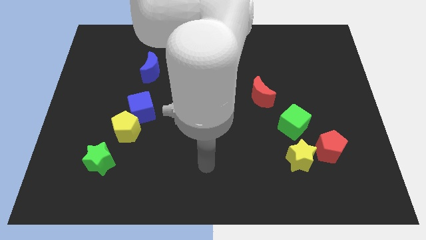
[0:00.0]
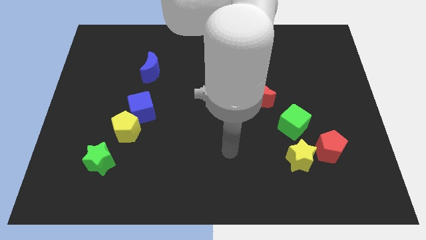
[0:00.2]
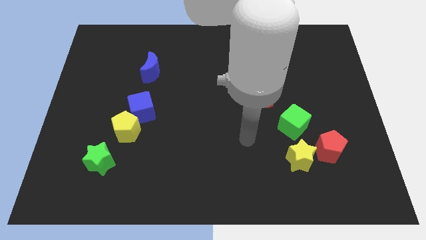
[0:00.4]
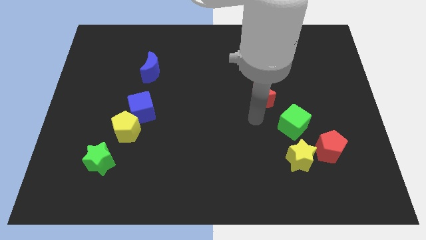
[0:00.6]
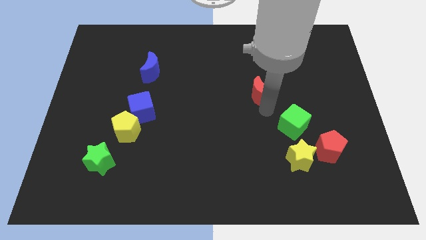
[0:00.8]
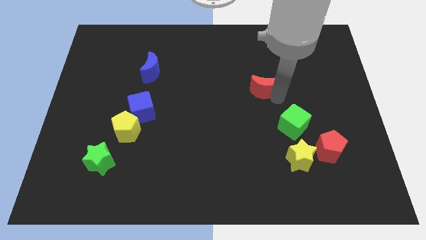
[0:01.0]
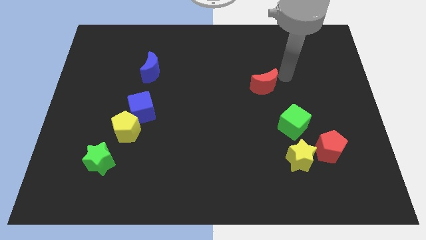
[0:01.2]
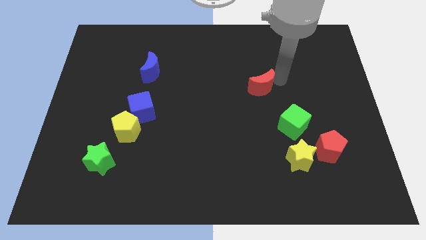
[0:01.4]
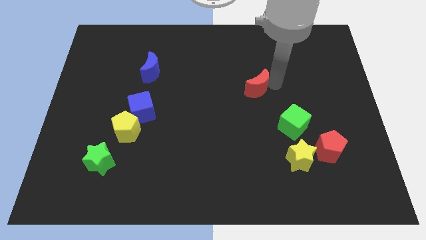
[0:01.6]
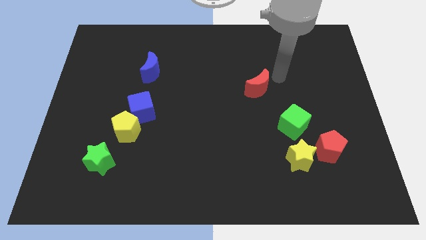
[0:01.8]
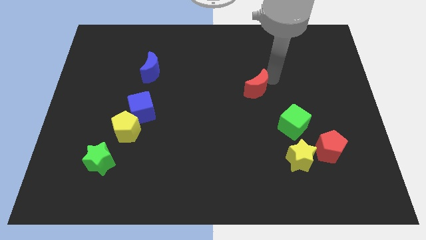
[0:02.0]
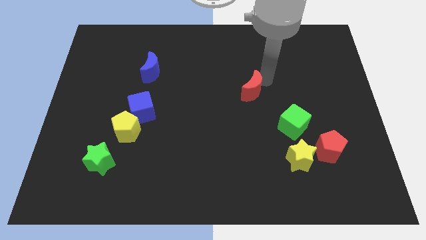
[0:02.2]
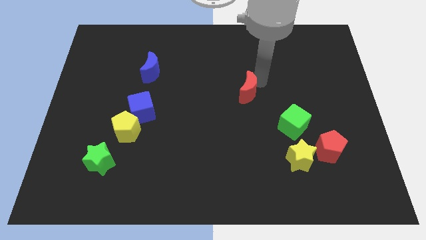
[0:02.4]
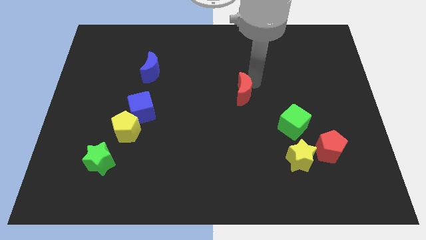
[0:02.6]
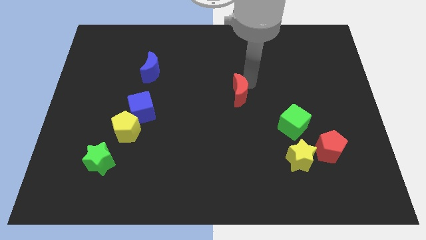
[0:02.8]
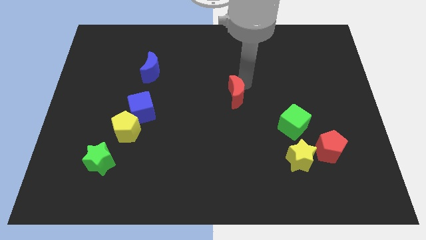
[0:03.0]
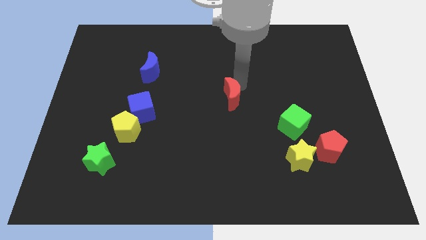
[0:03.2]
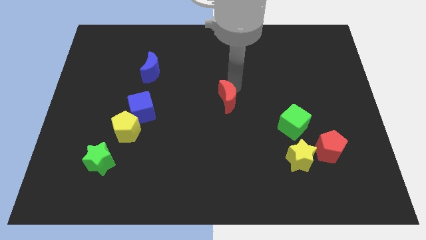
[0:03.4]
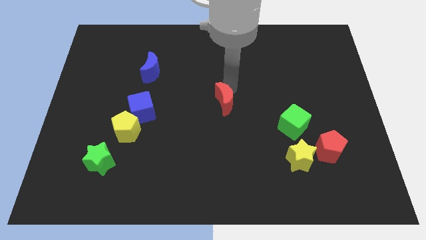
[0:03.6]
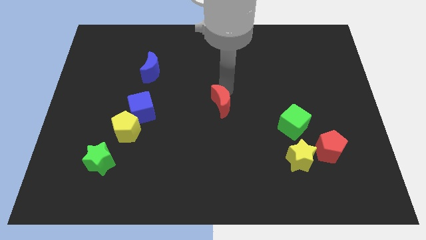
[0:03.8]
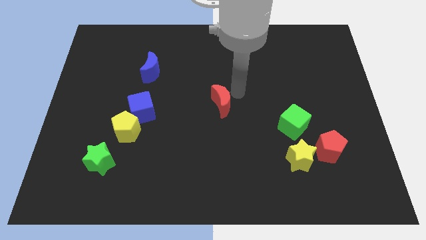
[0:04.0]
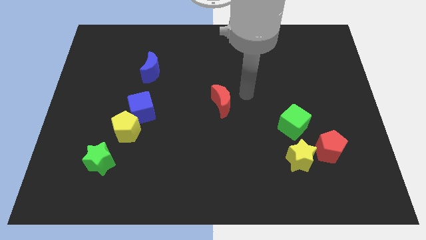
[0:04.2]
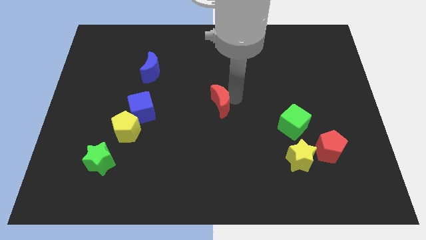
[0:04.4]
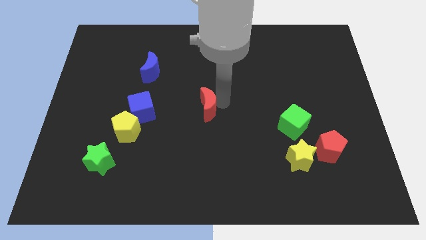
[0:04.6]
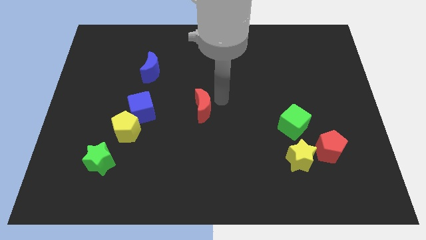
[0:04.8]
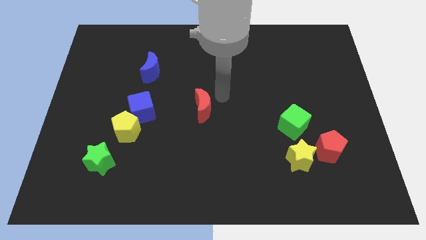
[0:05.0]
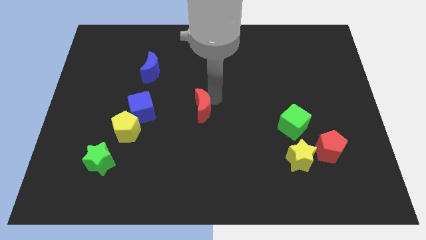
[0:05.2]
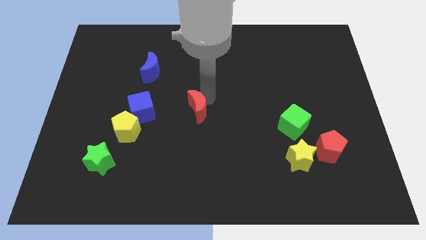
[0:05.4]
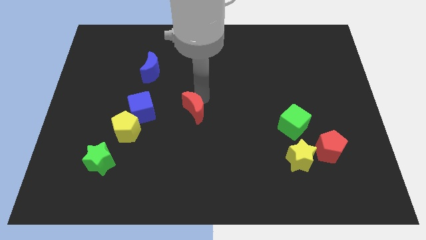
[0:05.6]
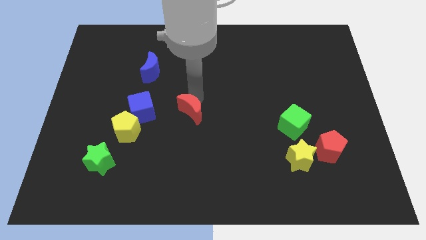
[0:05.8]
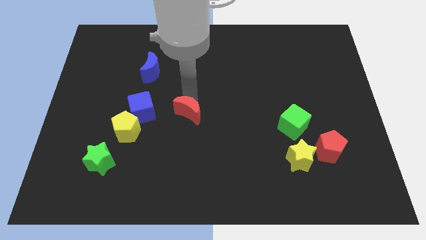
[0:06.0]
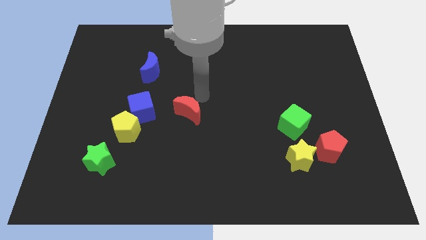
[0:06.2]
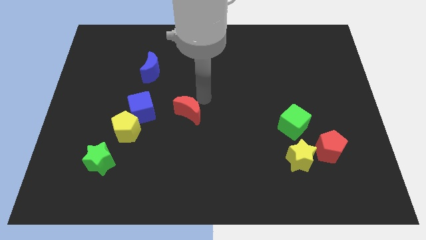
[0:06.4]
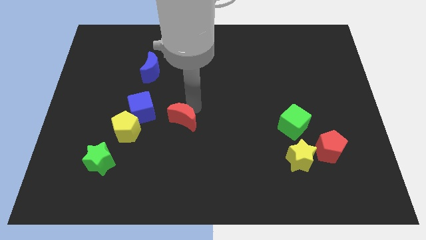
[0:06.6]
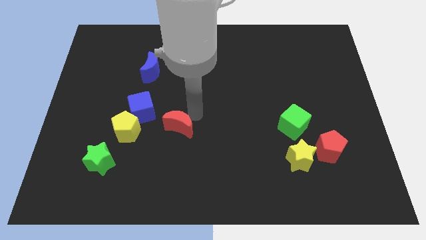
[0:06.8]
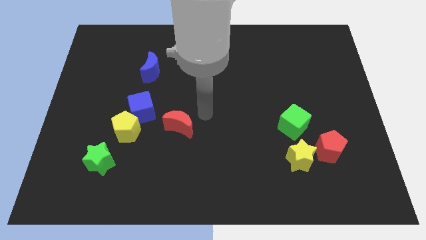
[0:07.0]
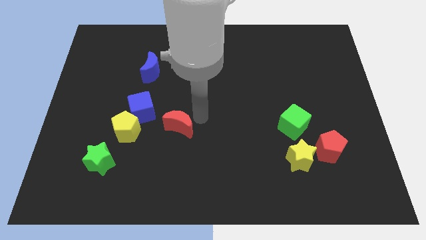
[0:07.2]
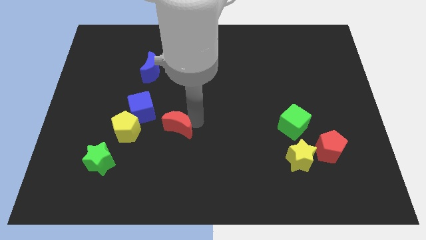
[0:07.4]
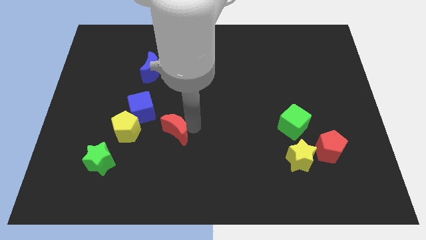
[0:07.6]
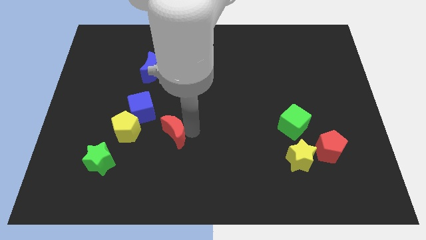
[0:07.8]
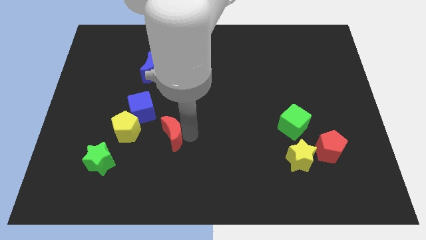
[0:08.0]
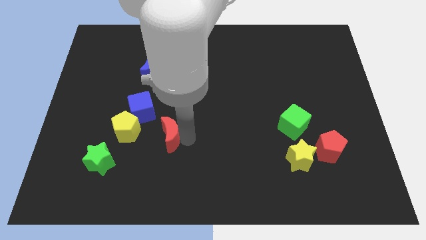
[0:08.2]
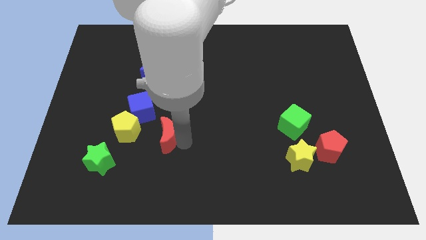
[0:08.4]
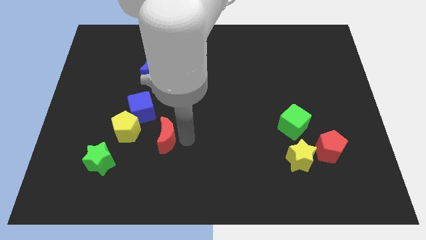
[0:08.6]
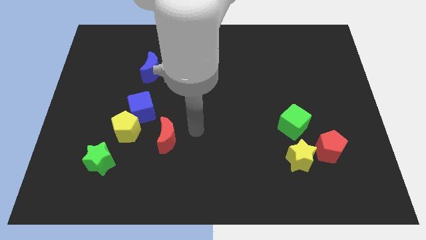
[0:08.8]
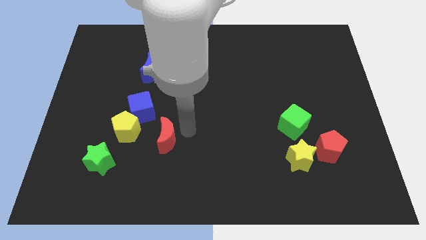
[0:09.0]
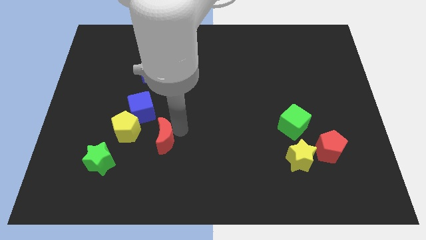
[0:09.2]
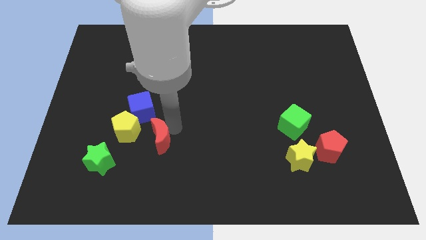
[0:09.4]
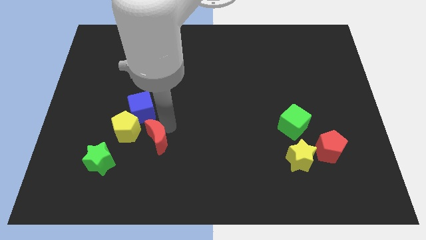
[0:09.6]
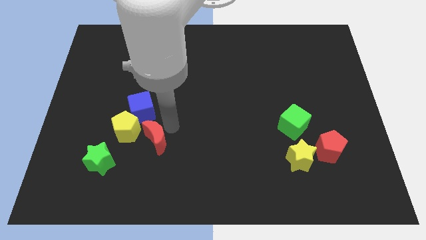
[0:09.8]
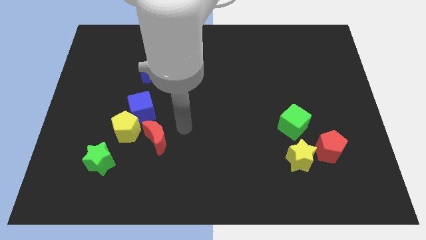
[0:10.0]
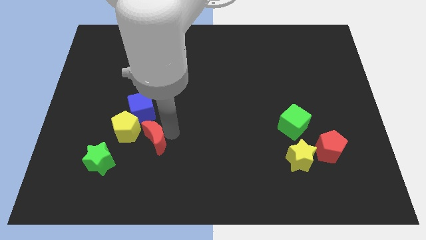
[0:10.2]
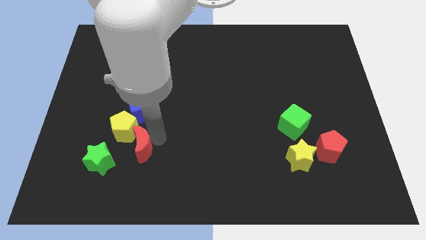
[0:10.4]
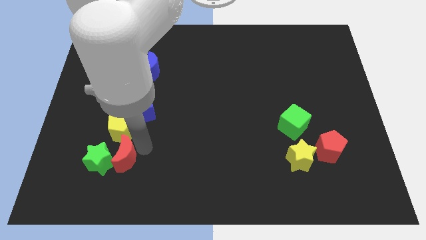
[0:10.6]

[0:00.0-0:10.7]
push the red moon close to the green star

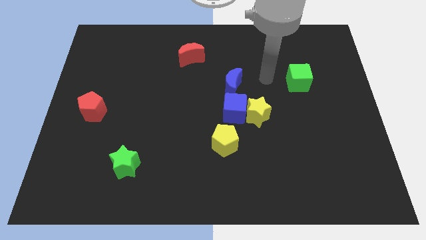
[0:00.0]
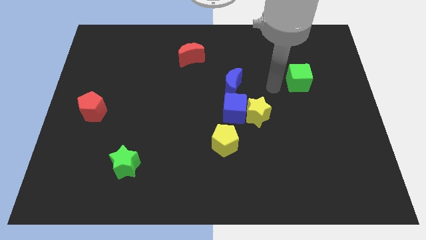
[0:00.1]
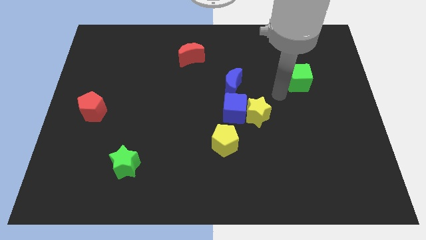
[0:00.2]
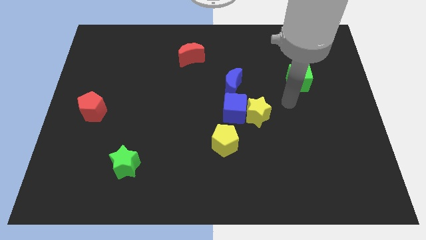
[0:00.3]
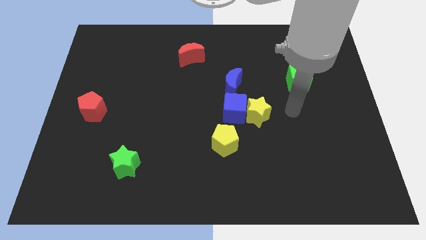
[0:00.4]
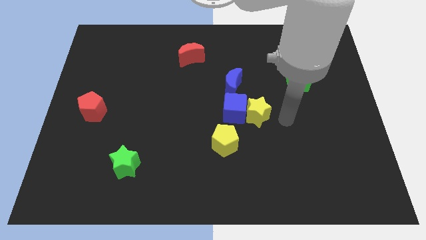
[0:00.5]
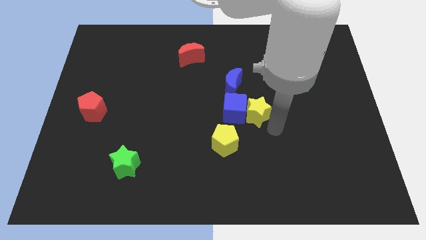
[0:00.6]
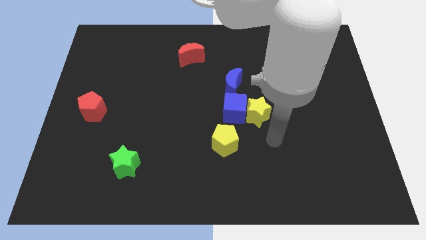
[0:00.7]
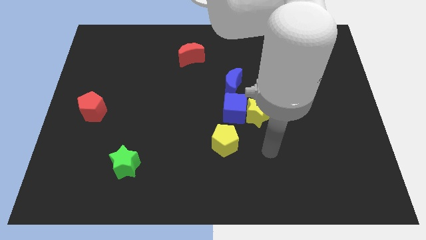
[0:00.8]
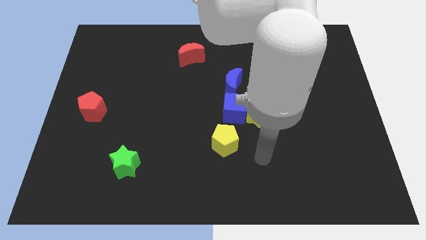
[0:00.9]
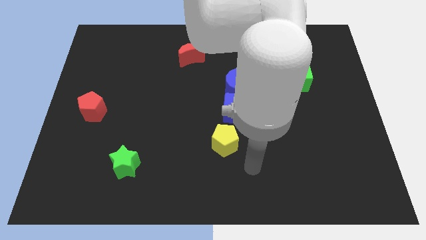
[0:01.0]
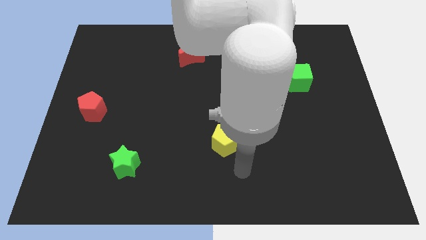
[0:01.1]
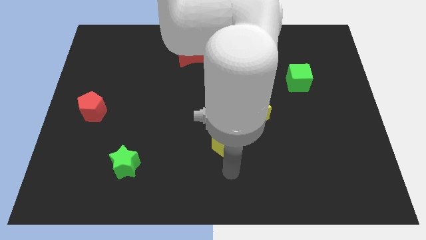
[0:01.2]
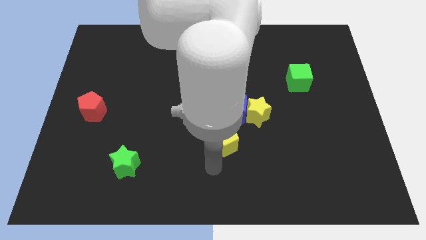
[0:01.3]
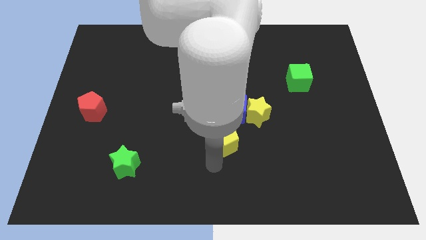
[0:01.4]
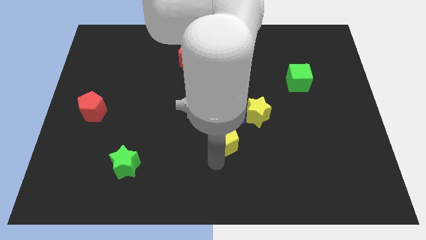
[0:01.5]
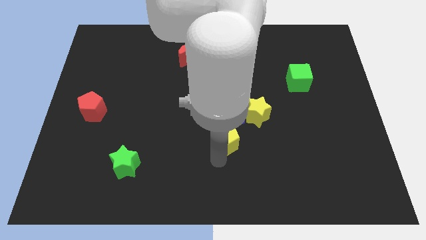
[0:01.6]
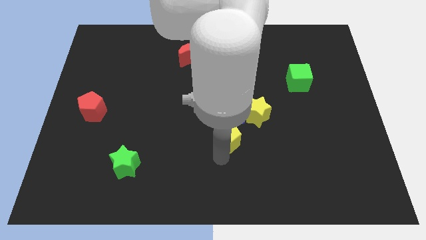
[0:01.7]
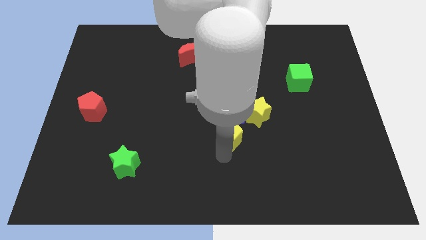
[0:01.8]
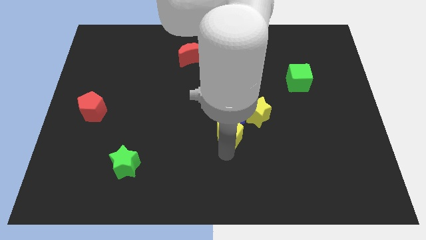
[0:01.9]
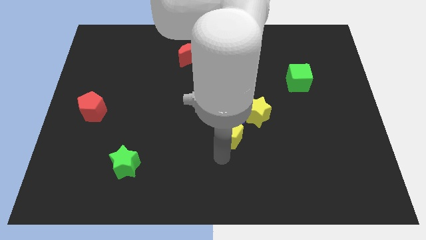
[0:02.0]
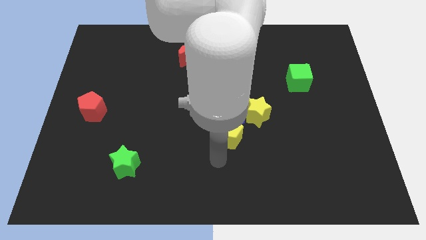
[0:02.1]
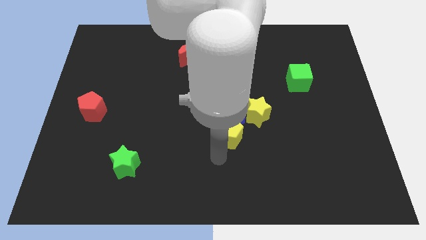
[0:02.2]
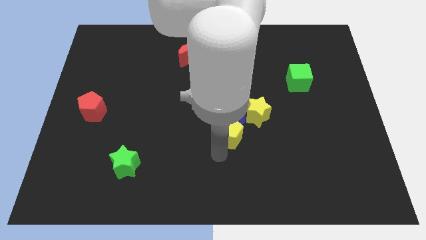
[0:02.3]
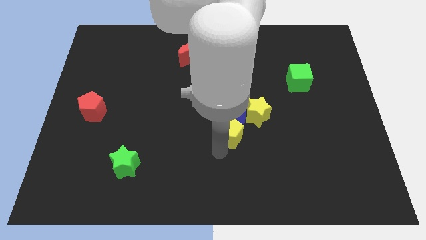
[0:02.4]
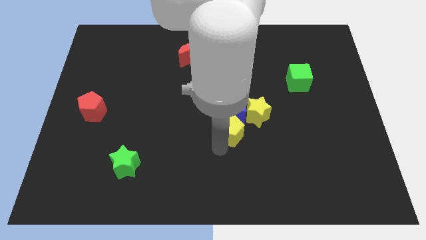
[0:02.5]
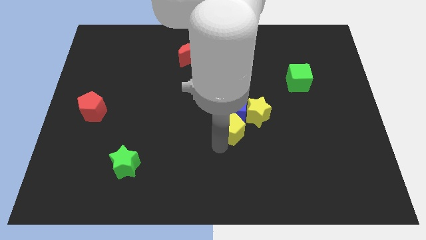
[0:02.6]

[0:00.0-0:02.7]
move the yellow pentagon close to the blue cube

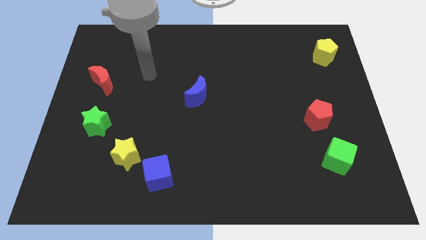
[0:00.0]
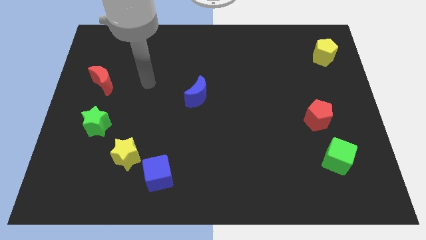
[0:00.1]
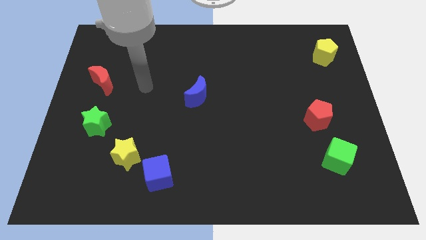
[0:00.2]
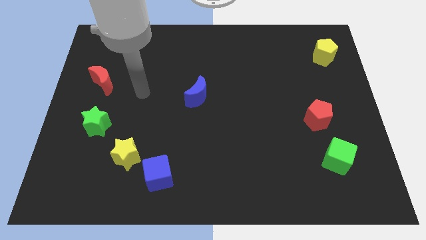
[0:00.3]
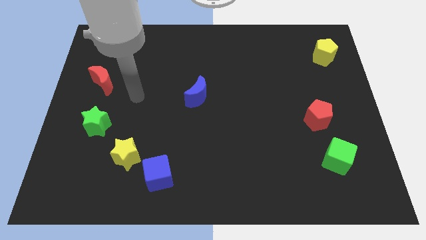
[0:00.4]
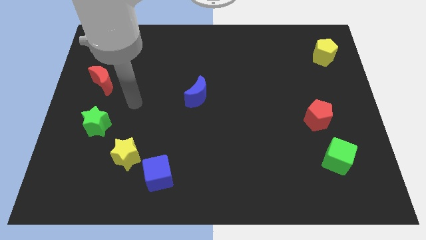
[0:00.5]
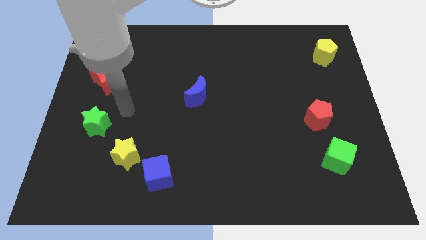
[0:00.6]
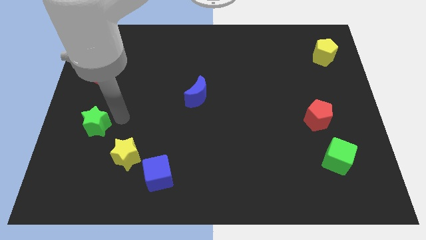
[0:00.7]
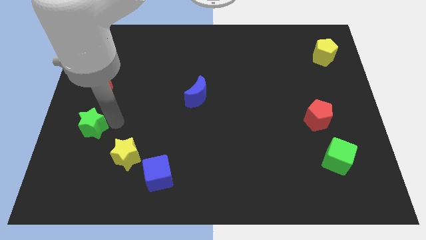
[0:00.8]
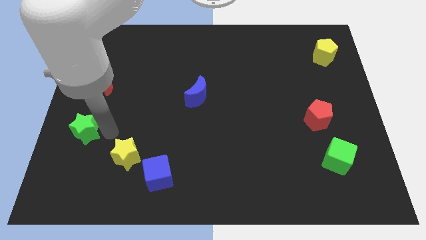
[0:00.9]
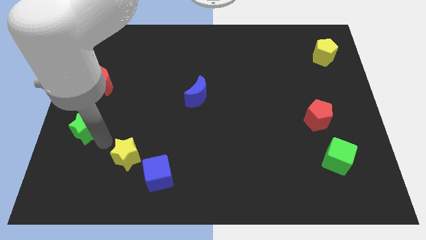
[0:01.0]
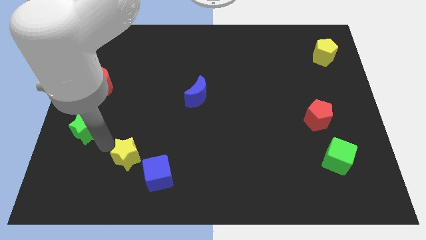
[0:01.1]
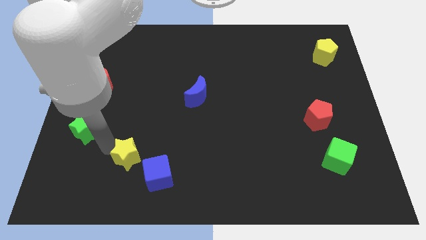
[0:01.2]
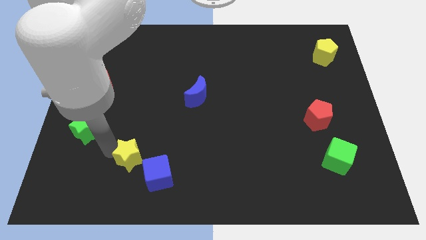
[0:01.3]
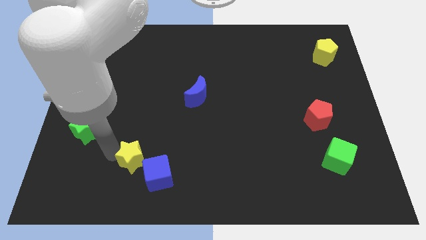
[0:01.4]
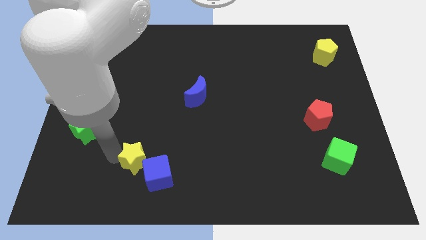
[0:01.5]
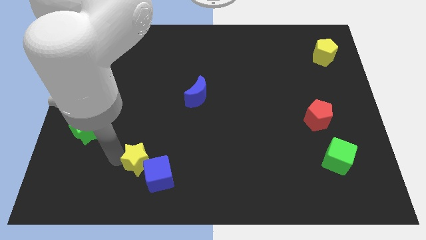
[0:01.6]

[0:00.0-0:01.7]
put the yellow star next to the blue cube
